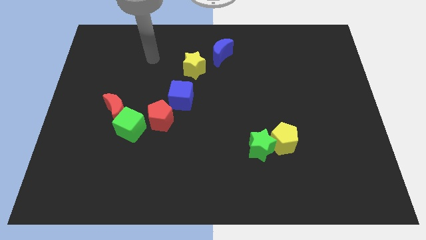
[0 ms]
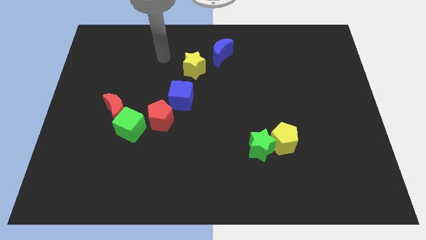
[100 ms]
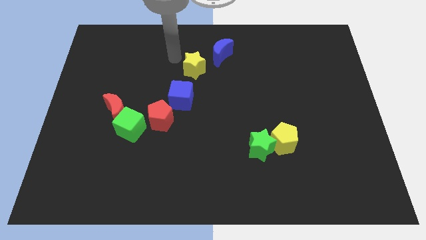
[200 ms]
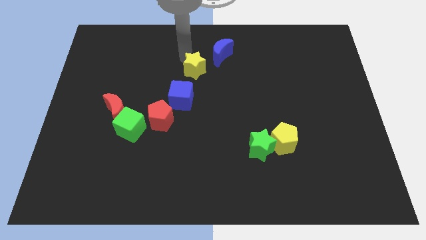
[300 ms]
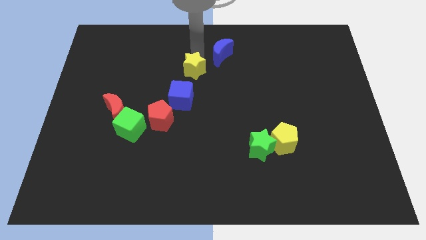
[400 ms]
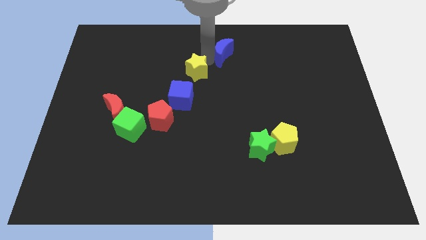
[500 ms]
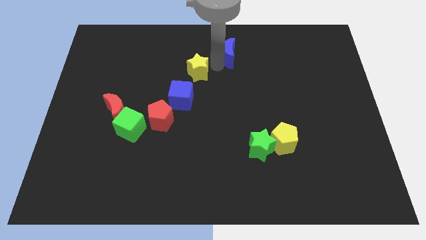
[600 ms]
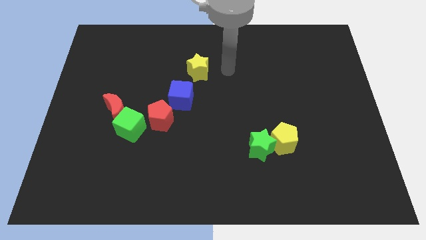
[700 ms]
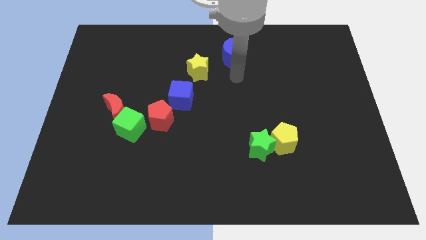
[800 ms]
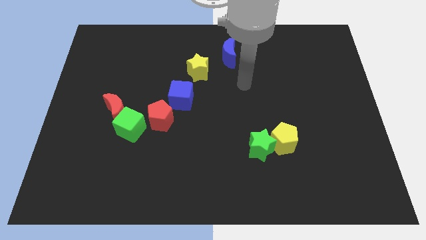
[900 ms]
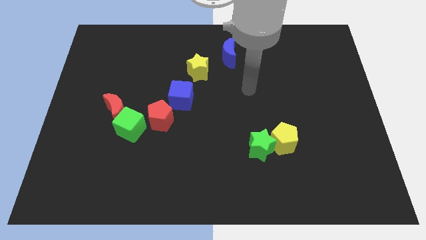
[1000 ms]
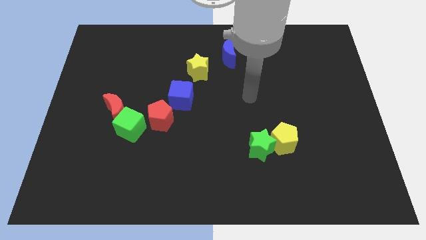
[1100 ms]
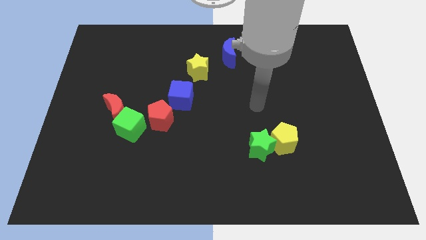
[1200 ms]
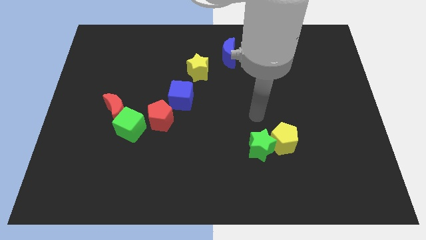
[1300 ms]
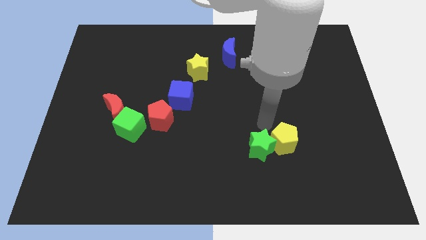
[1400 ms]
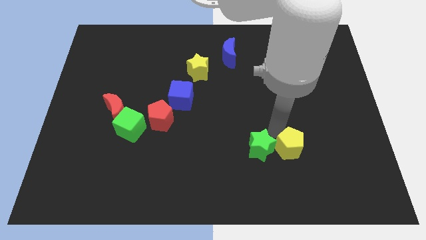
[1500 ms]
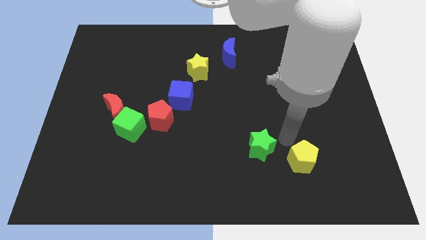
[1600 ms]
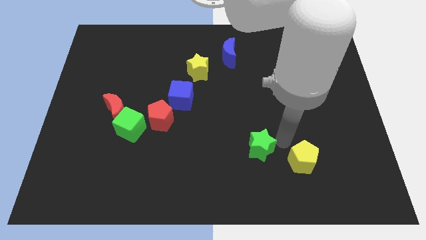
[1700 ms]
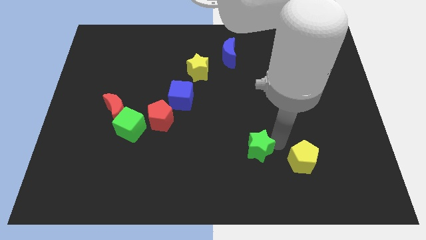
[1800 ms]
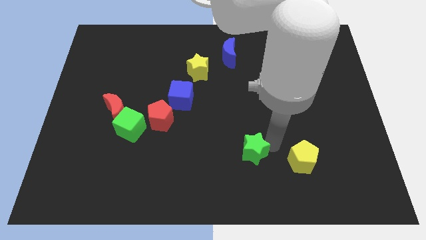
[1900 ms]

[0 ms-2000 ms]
separate the green star from the yellow pentagon

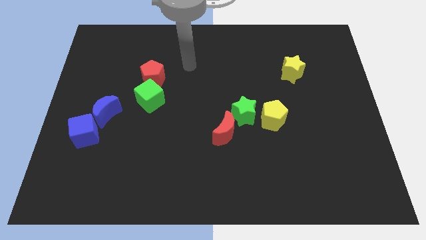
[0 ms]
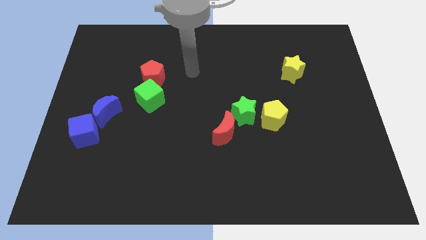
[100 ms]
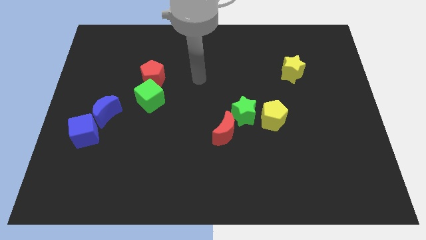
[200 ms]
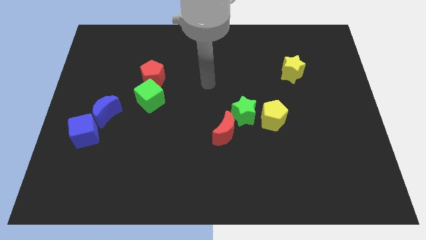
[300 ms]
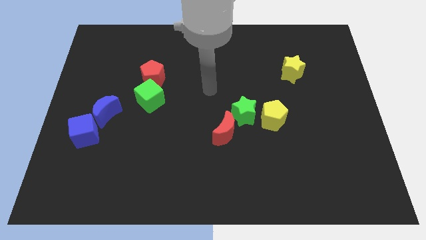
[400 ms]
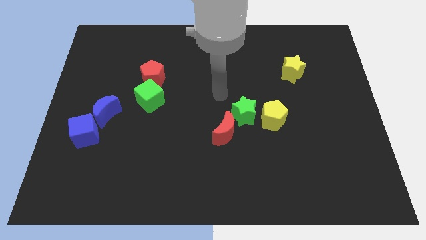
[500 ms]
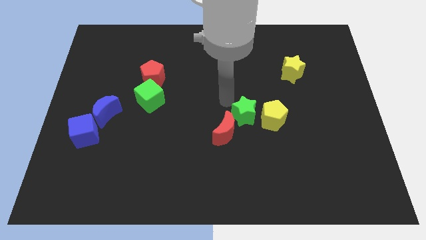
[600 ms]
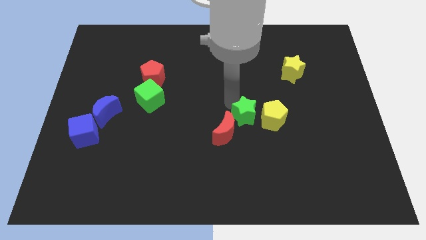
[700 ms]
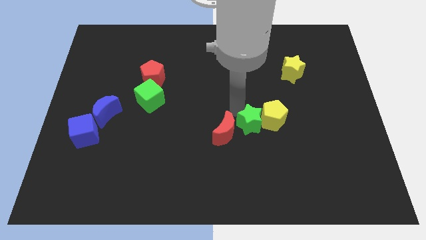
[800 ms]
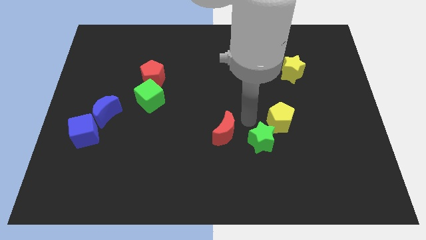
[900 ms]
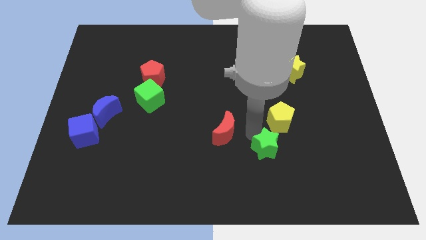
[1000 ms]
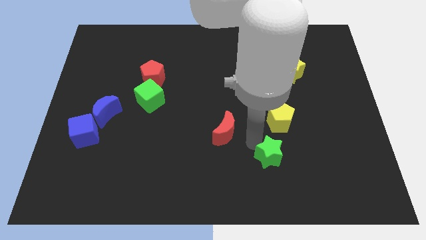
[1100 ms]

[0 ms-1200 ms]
move the red moon away from the green star

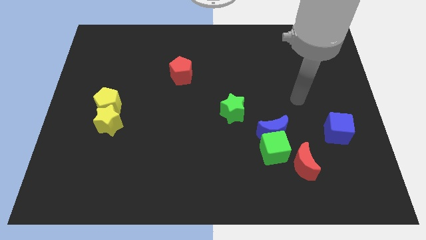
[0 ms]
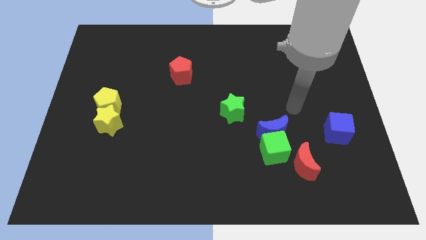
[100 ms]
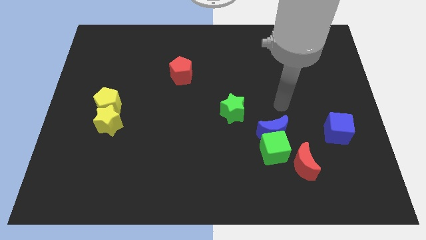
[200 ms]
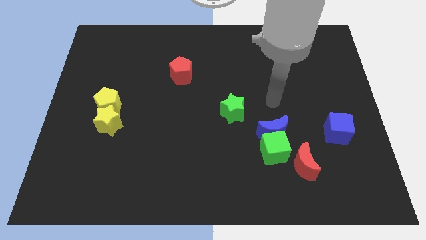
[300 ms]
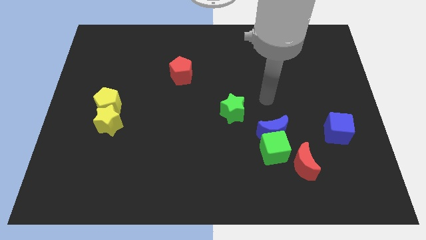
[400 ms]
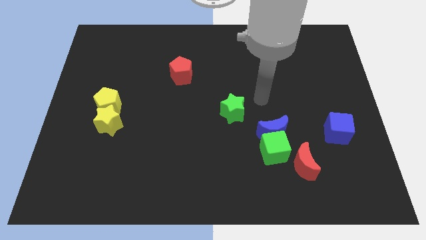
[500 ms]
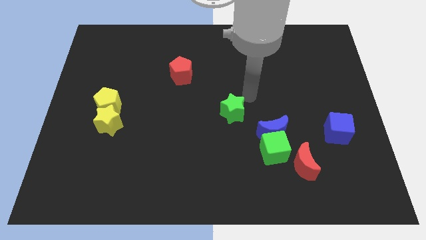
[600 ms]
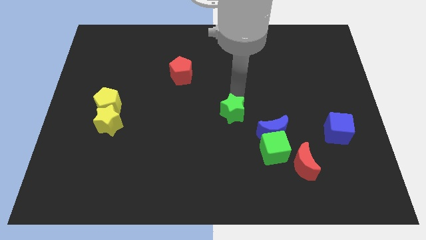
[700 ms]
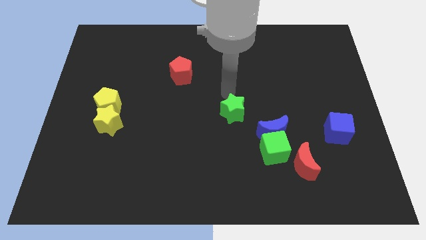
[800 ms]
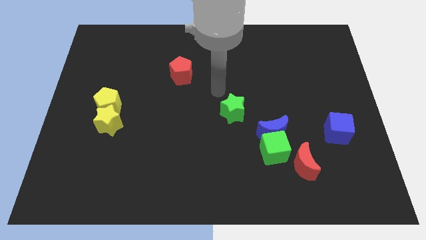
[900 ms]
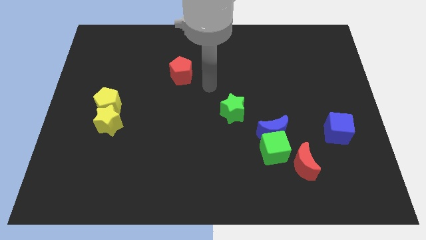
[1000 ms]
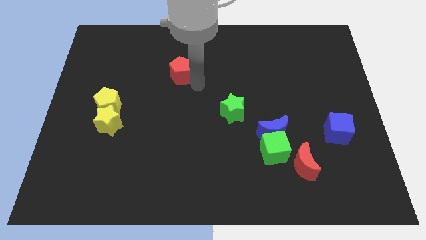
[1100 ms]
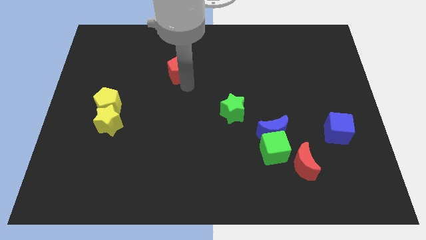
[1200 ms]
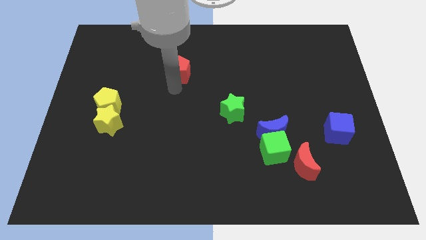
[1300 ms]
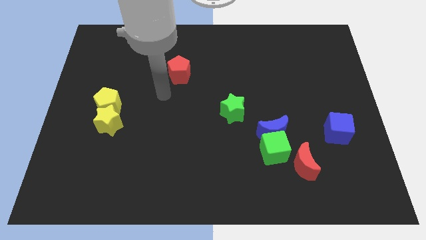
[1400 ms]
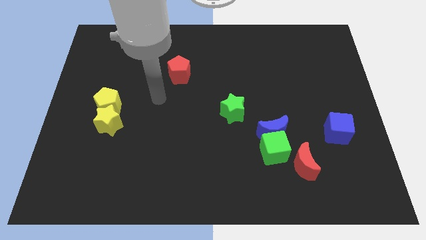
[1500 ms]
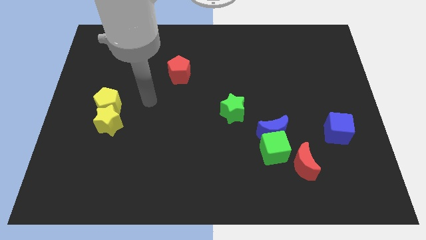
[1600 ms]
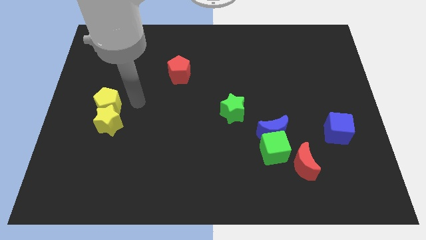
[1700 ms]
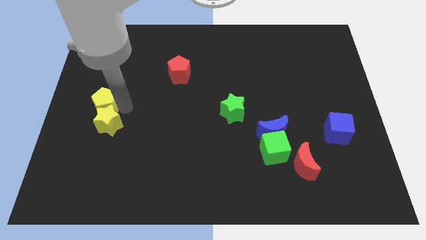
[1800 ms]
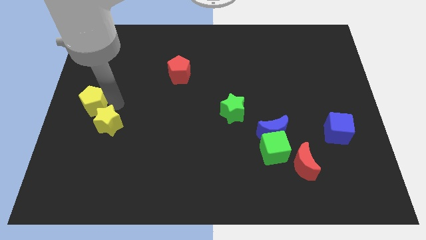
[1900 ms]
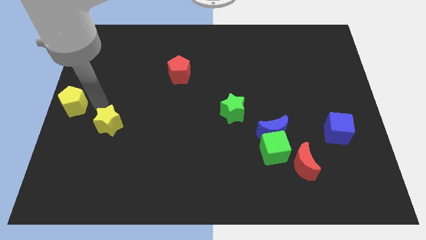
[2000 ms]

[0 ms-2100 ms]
move the yellow star away from the yellow pentagon

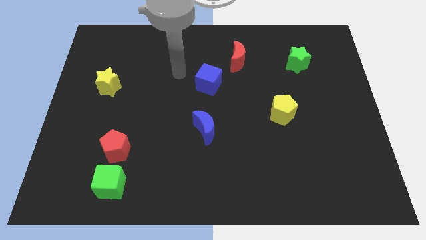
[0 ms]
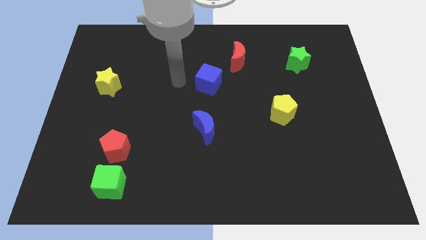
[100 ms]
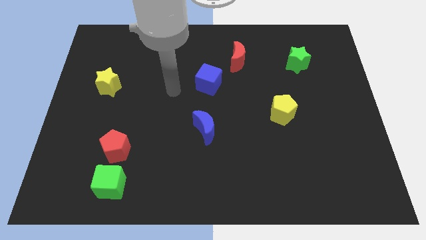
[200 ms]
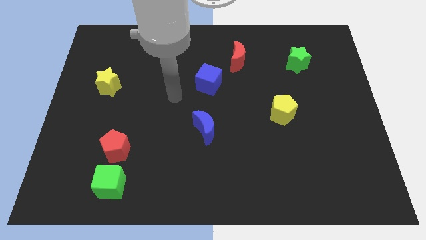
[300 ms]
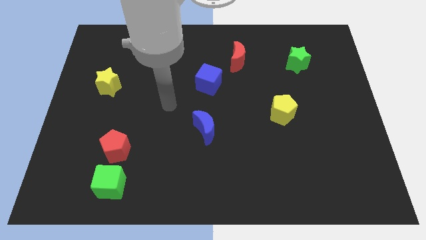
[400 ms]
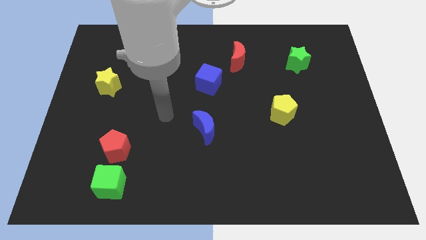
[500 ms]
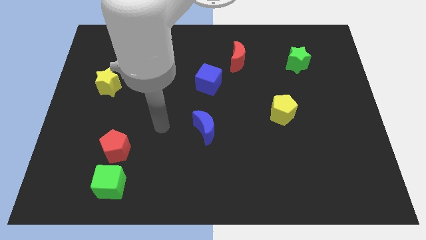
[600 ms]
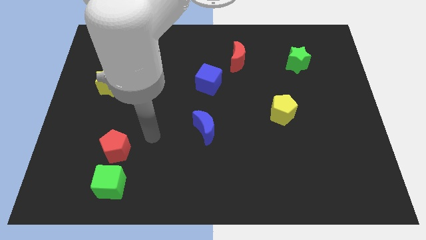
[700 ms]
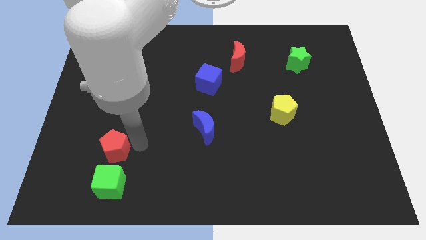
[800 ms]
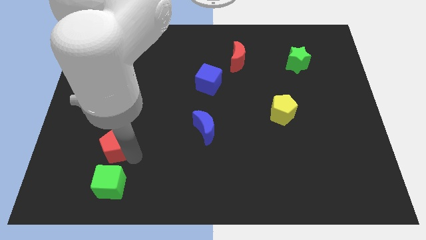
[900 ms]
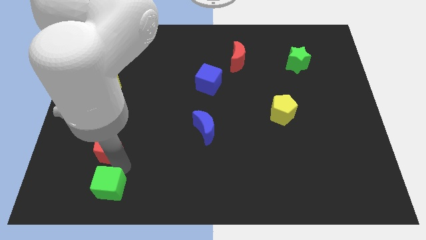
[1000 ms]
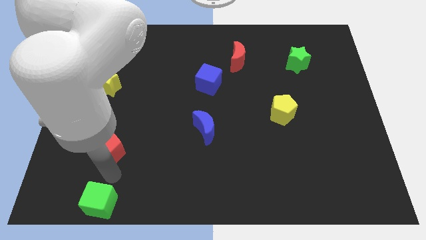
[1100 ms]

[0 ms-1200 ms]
pull the red pentagon apart from the green cube

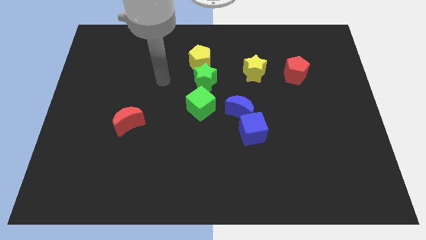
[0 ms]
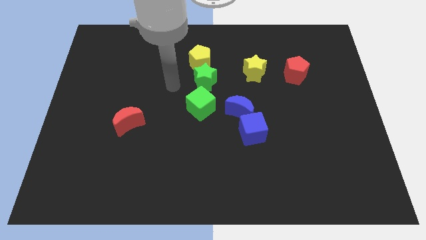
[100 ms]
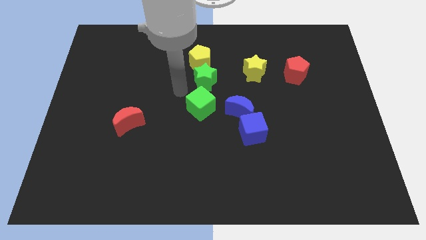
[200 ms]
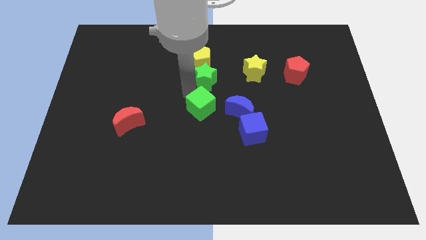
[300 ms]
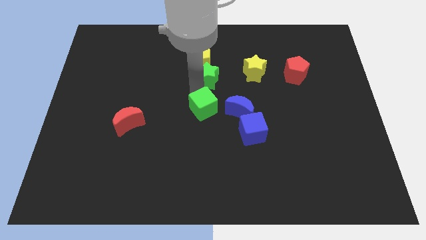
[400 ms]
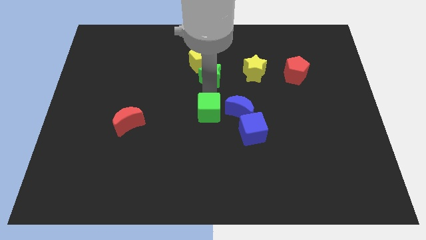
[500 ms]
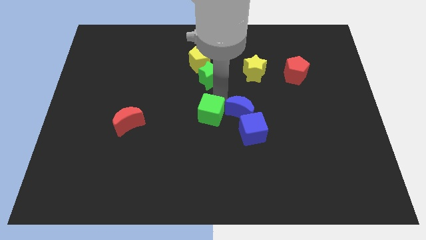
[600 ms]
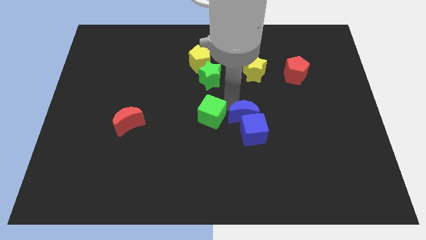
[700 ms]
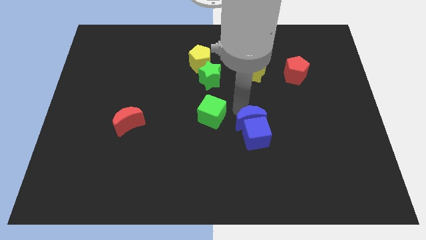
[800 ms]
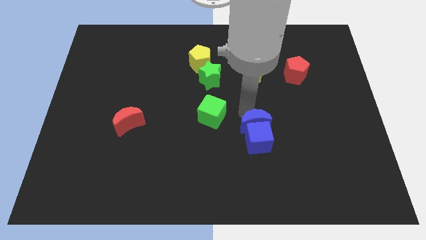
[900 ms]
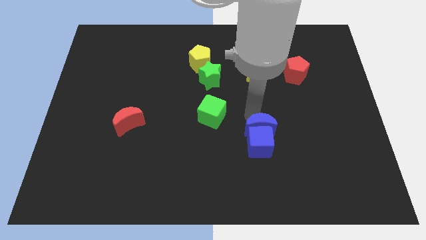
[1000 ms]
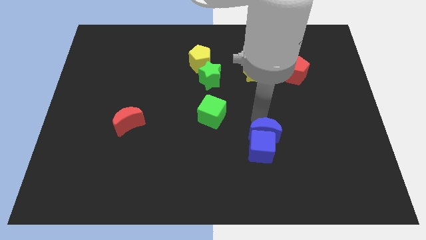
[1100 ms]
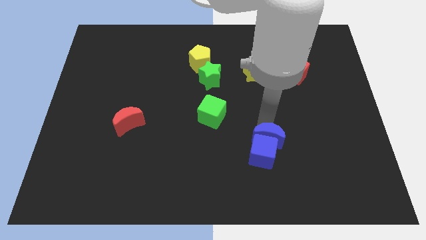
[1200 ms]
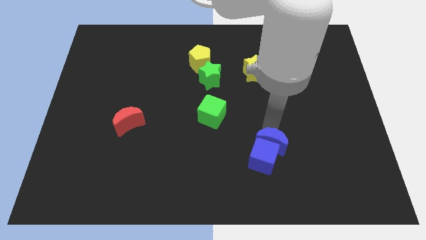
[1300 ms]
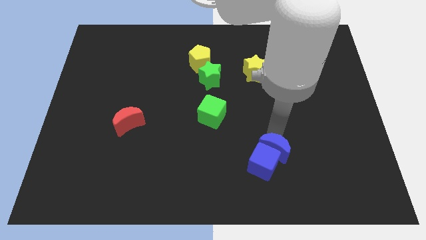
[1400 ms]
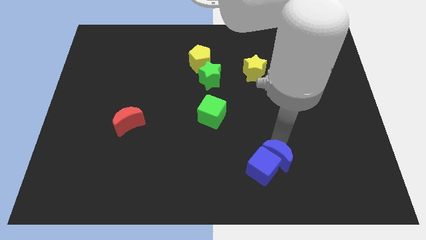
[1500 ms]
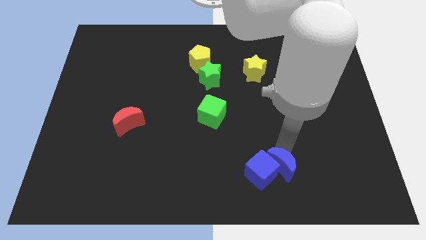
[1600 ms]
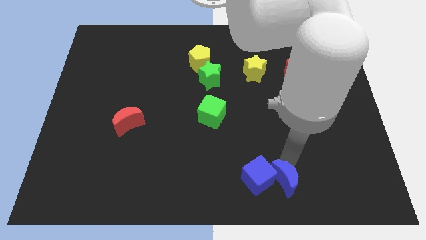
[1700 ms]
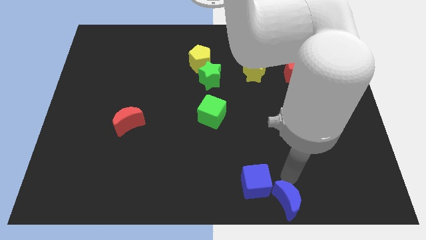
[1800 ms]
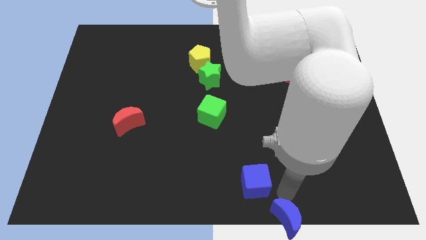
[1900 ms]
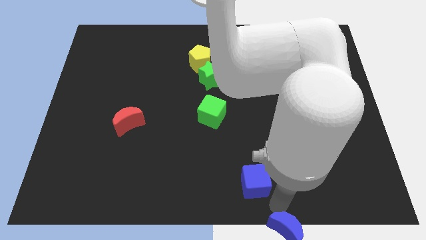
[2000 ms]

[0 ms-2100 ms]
move the blue cube away from the blue moon

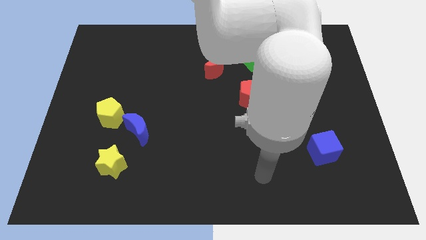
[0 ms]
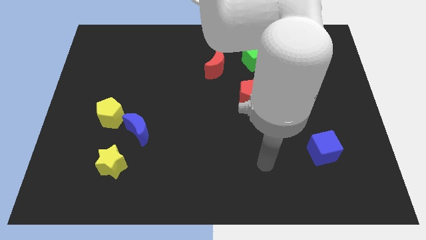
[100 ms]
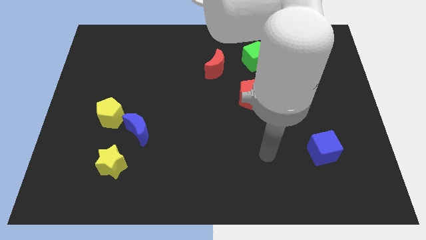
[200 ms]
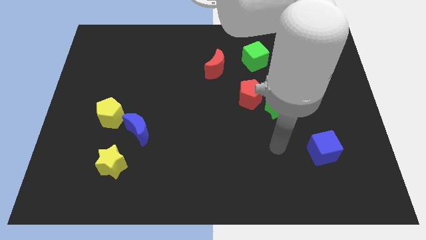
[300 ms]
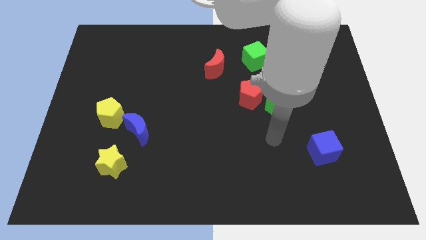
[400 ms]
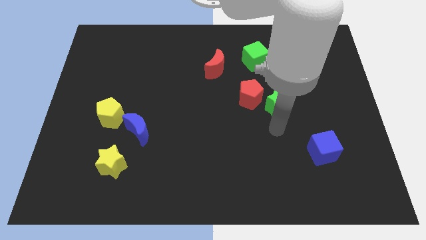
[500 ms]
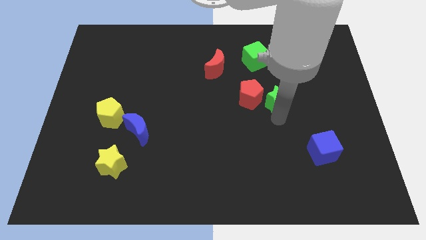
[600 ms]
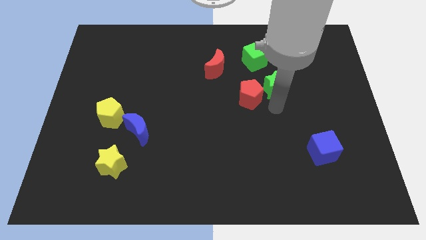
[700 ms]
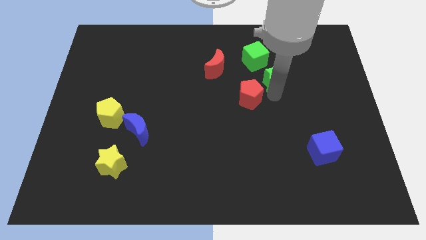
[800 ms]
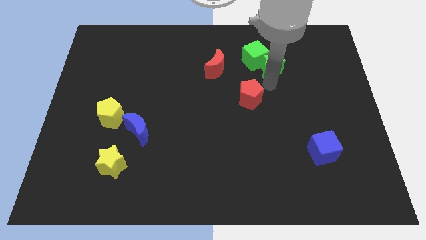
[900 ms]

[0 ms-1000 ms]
pull the red pentagon apart from the green star
